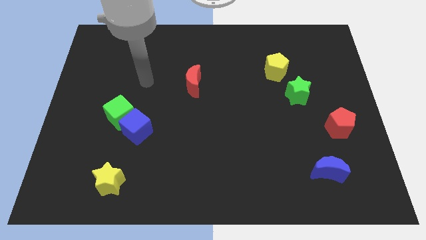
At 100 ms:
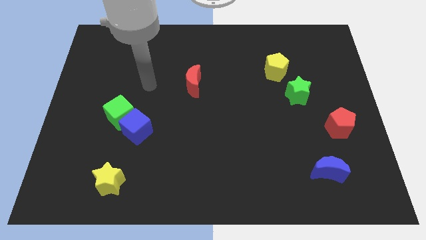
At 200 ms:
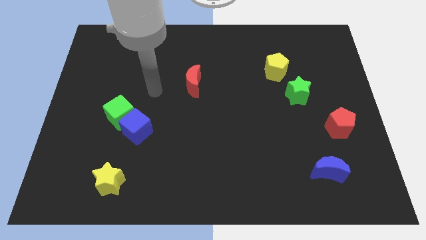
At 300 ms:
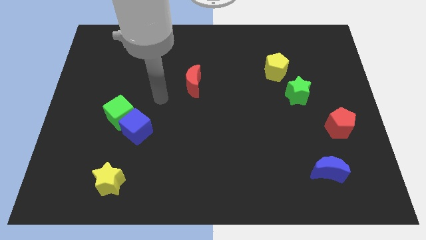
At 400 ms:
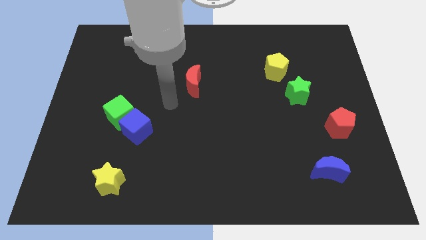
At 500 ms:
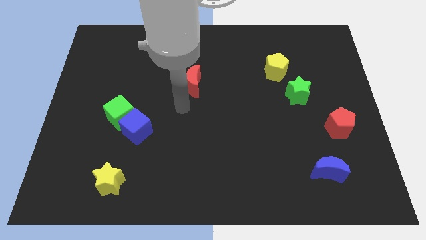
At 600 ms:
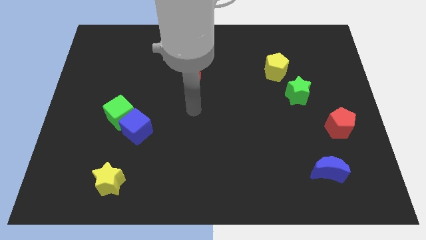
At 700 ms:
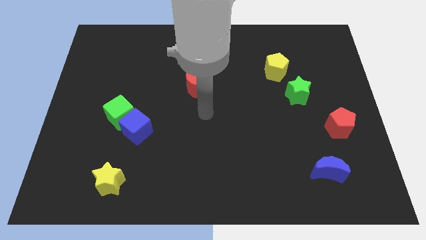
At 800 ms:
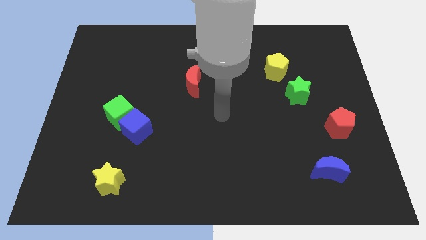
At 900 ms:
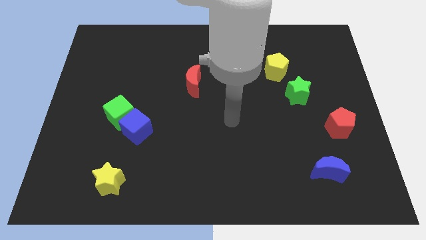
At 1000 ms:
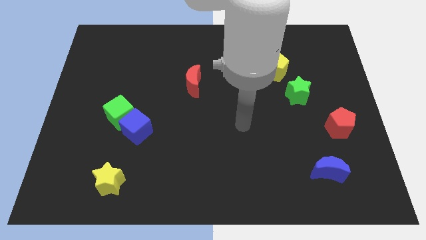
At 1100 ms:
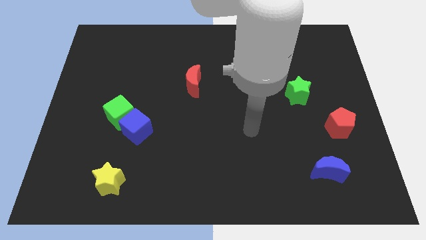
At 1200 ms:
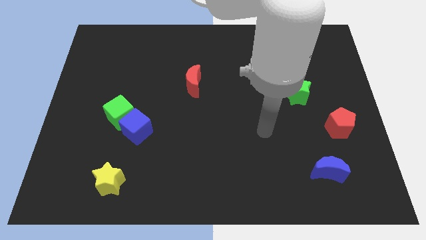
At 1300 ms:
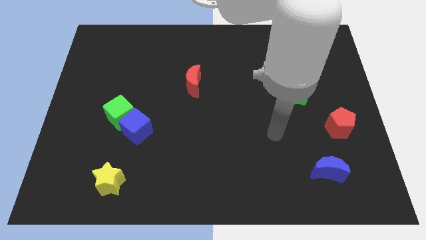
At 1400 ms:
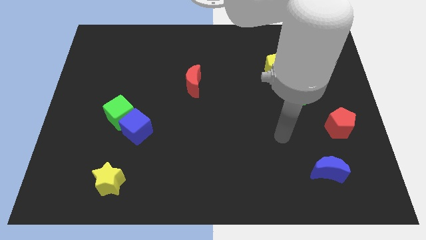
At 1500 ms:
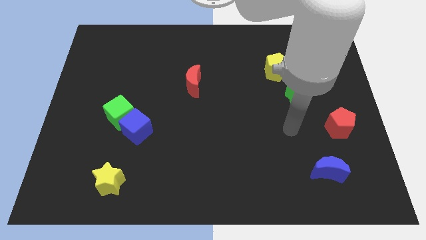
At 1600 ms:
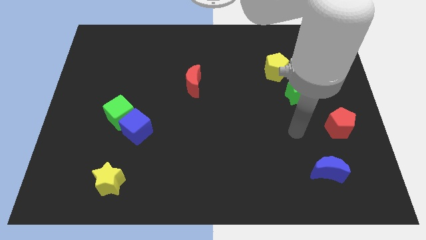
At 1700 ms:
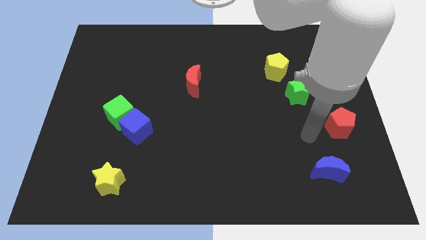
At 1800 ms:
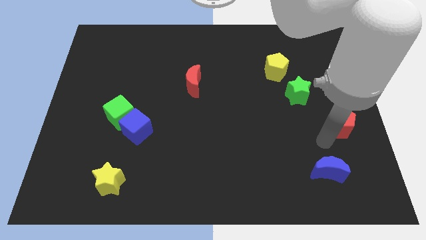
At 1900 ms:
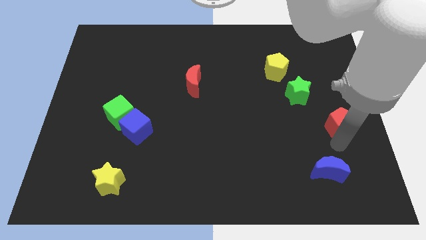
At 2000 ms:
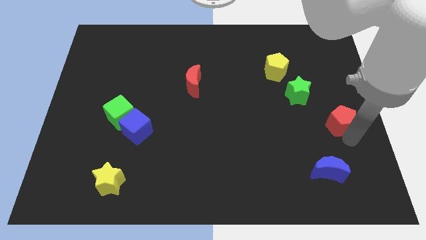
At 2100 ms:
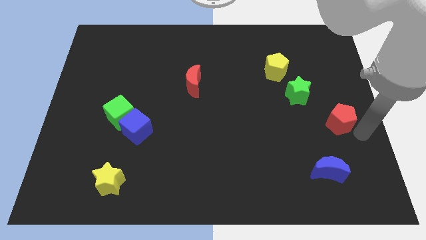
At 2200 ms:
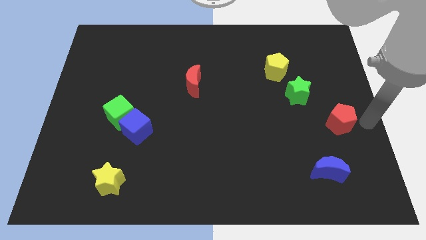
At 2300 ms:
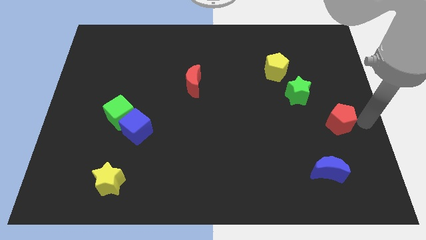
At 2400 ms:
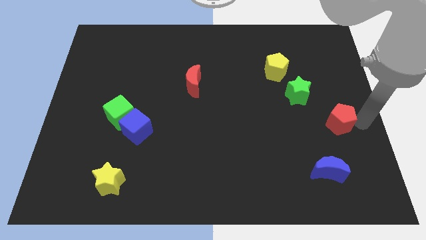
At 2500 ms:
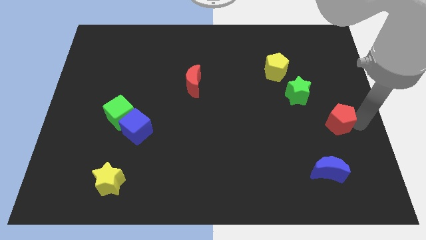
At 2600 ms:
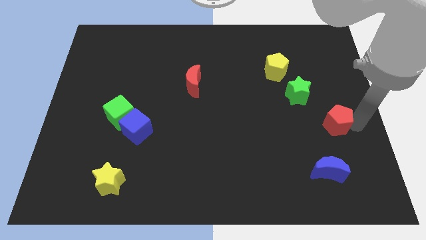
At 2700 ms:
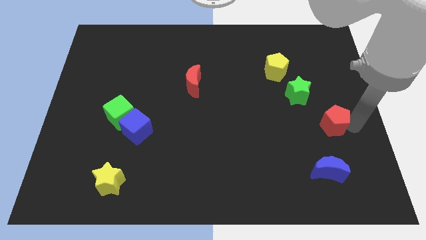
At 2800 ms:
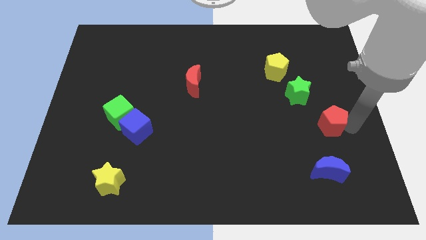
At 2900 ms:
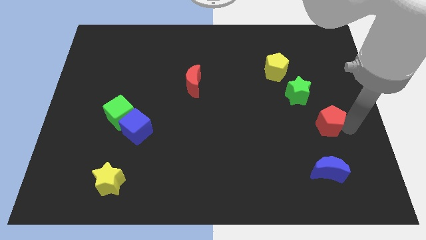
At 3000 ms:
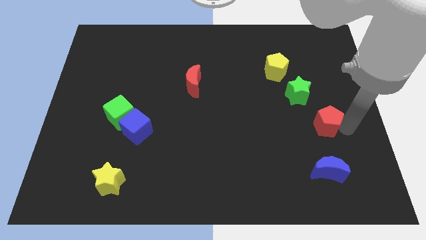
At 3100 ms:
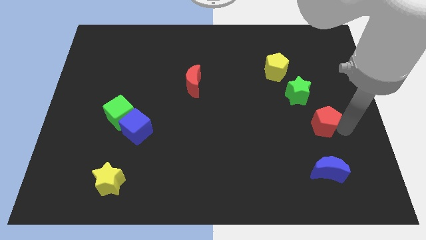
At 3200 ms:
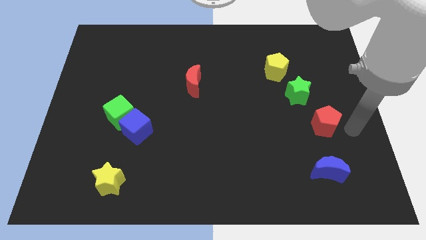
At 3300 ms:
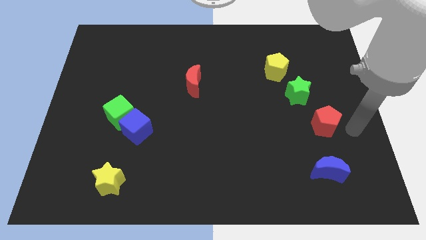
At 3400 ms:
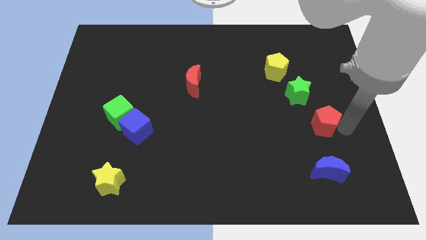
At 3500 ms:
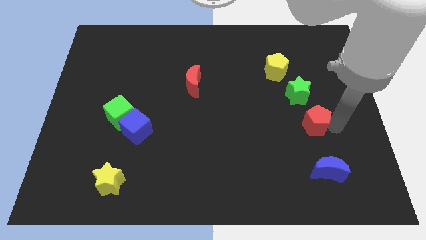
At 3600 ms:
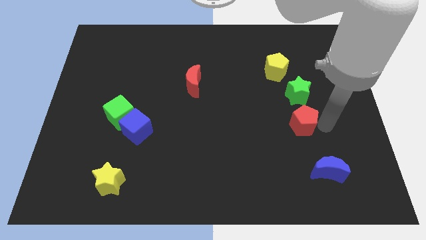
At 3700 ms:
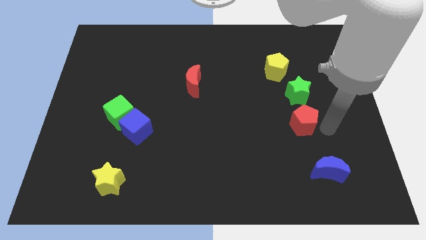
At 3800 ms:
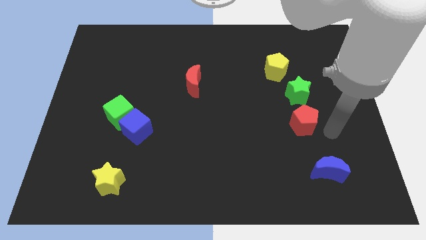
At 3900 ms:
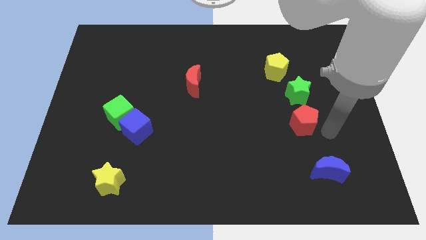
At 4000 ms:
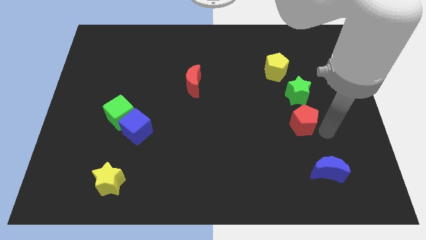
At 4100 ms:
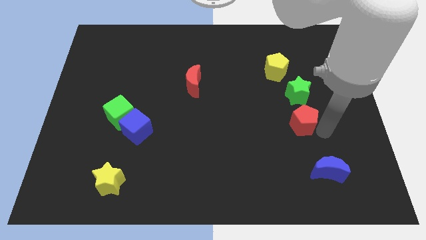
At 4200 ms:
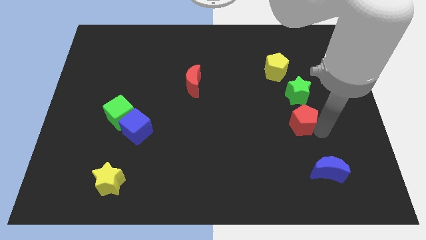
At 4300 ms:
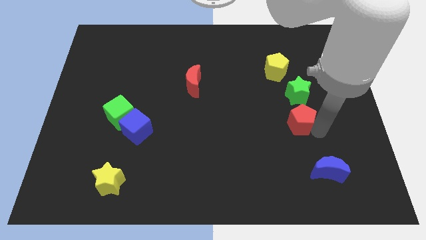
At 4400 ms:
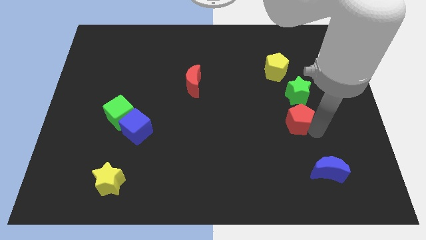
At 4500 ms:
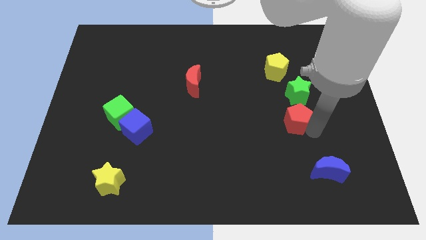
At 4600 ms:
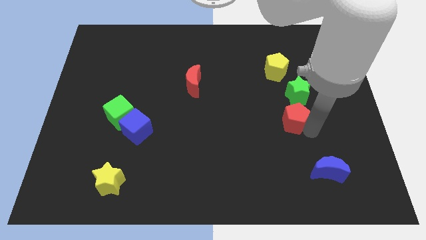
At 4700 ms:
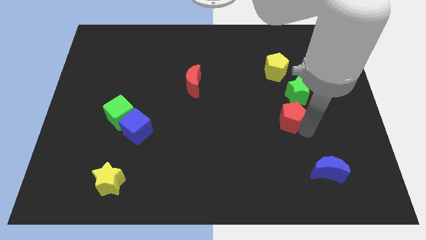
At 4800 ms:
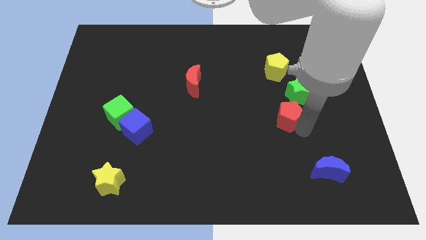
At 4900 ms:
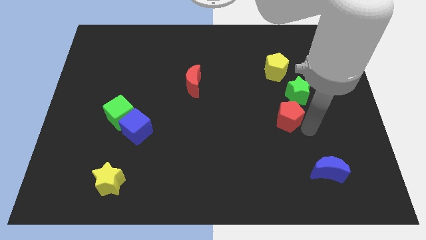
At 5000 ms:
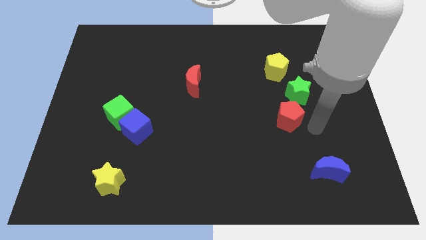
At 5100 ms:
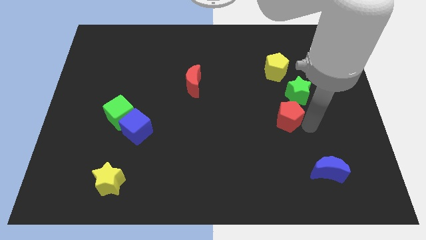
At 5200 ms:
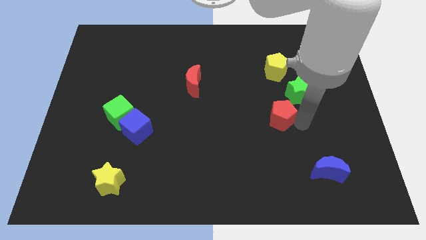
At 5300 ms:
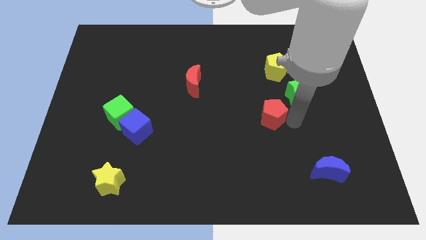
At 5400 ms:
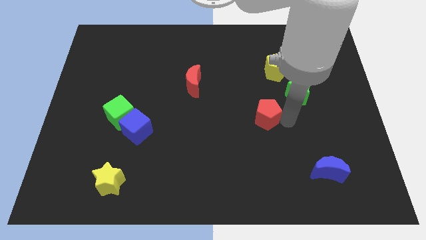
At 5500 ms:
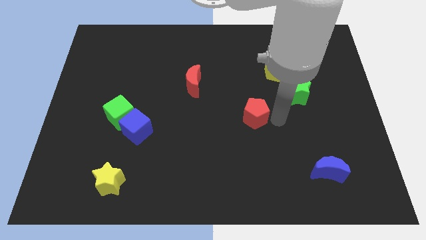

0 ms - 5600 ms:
put the red pentagon to the middle of the board

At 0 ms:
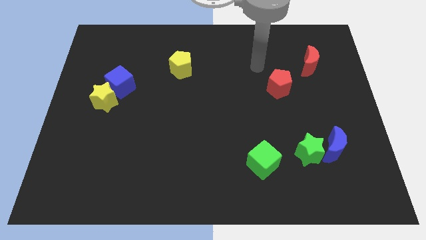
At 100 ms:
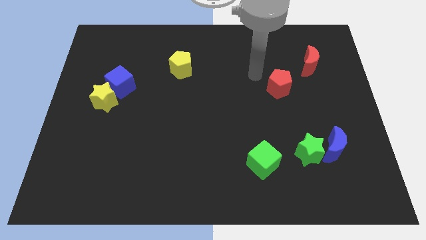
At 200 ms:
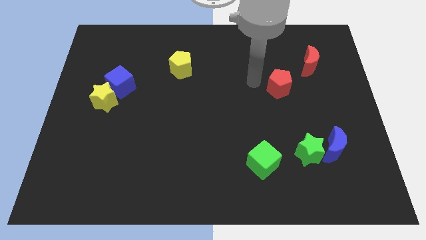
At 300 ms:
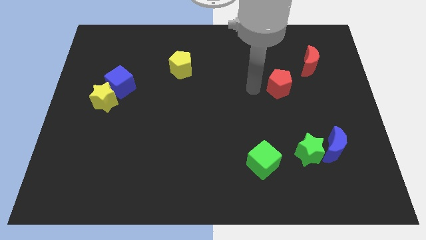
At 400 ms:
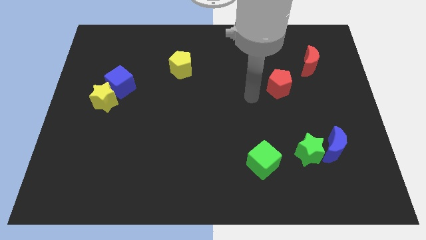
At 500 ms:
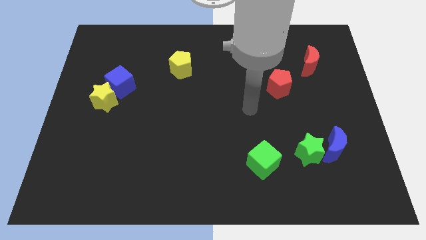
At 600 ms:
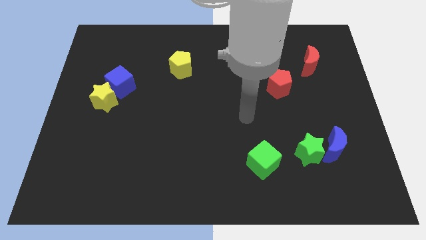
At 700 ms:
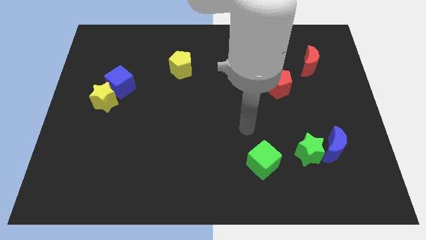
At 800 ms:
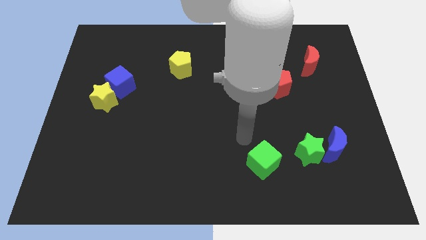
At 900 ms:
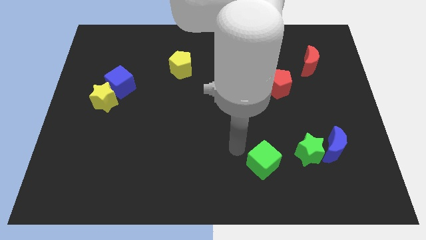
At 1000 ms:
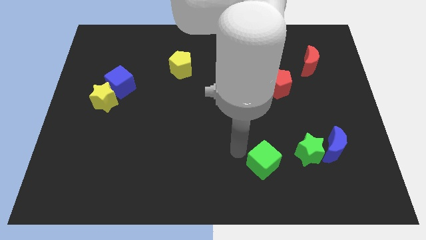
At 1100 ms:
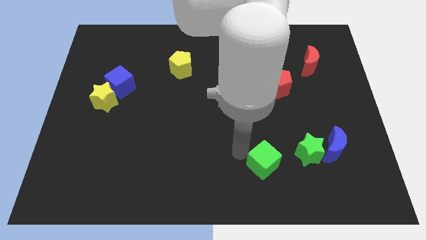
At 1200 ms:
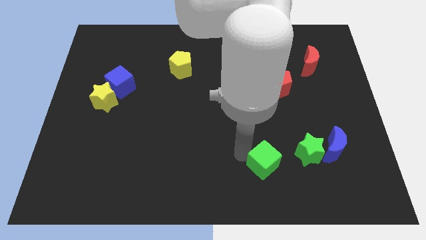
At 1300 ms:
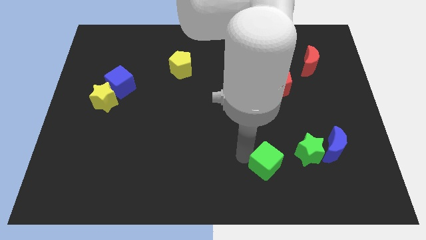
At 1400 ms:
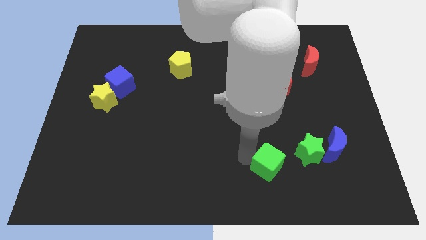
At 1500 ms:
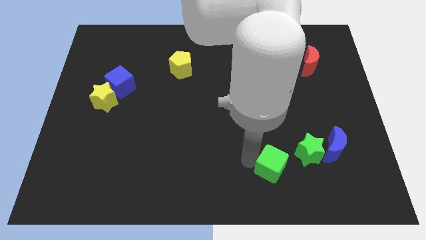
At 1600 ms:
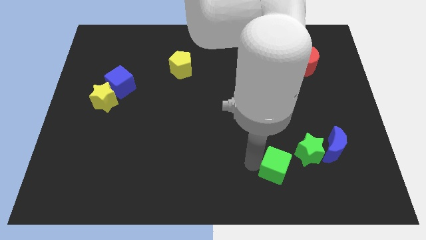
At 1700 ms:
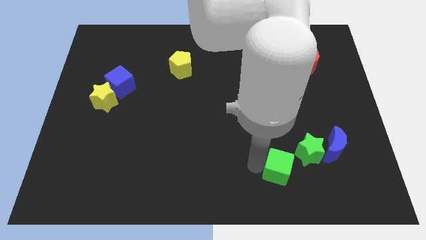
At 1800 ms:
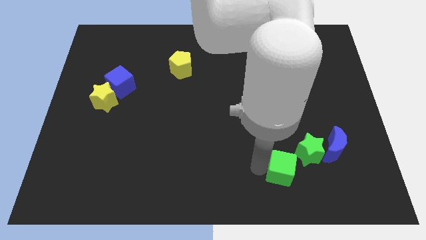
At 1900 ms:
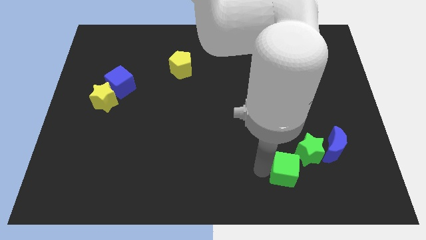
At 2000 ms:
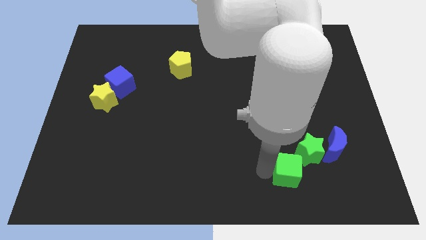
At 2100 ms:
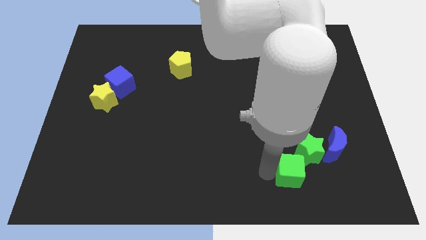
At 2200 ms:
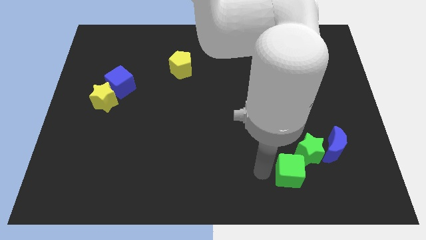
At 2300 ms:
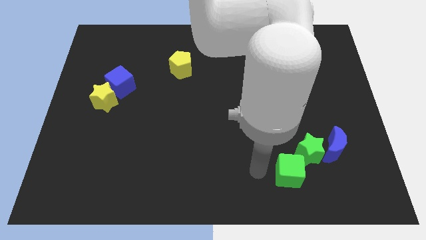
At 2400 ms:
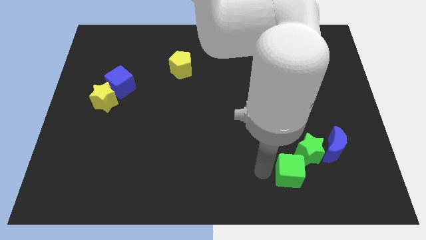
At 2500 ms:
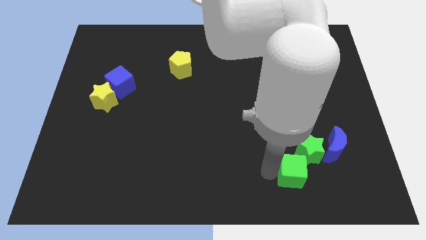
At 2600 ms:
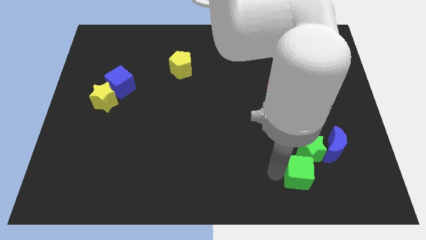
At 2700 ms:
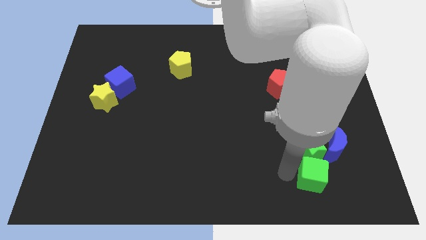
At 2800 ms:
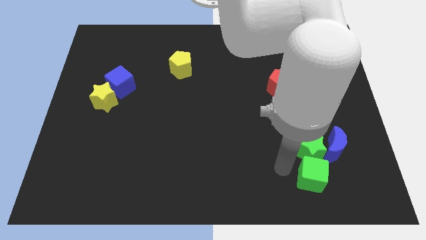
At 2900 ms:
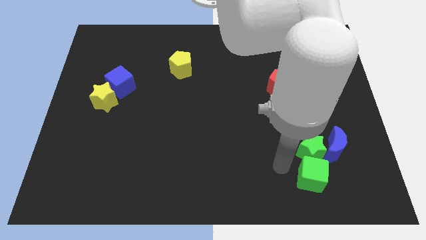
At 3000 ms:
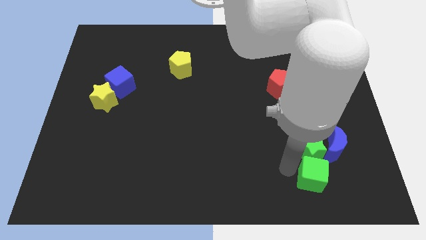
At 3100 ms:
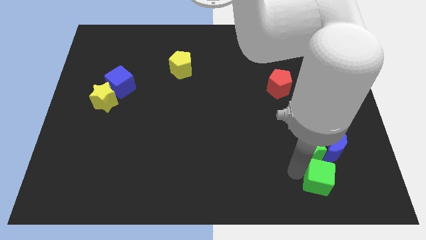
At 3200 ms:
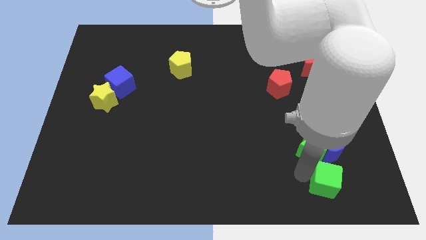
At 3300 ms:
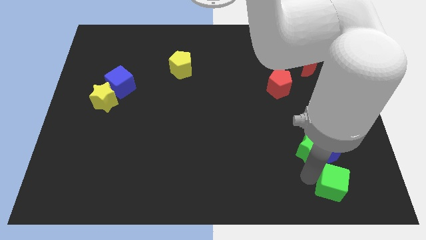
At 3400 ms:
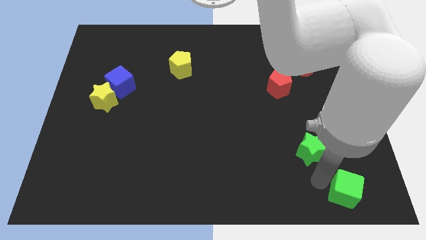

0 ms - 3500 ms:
push the green cube to the bottom right
